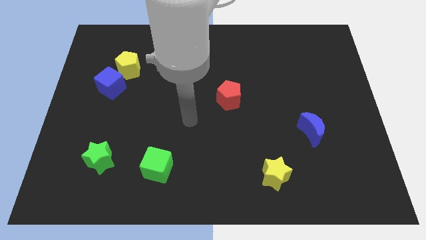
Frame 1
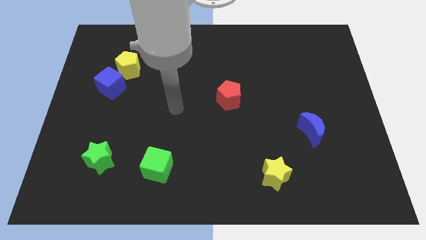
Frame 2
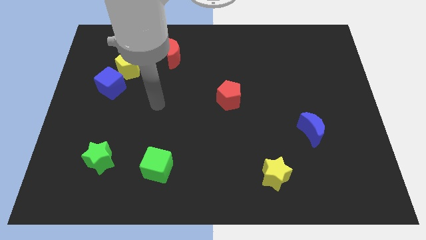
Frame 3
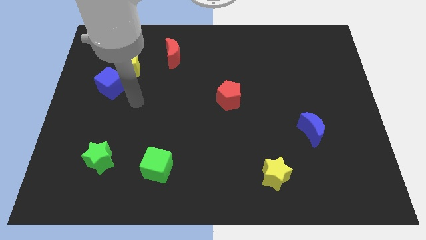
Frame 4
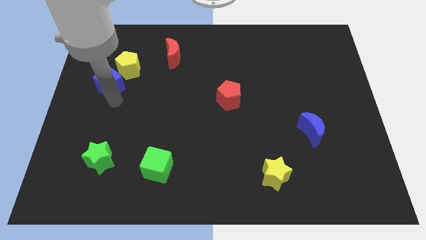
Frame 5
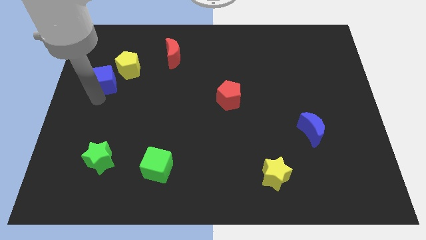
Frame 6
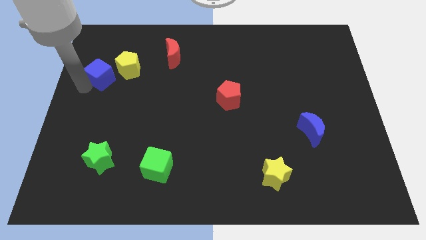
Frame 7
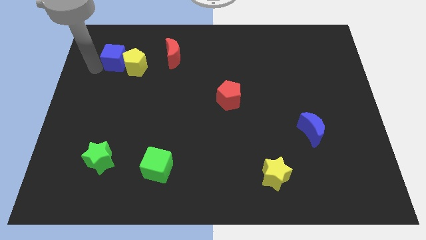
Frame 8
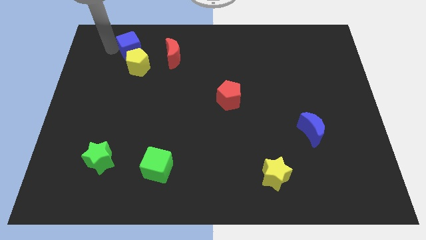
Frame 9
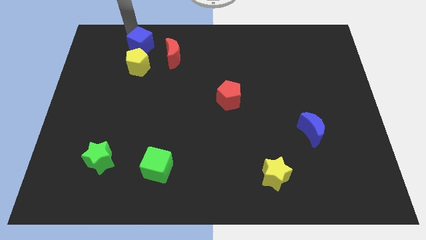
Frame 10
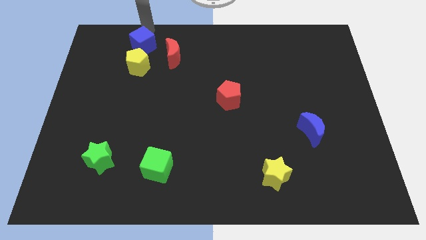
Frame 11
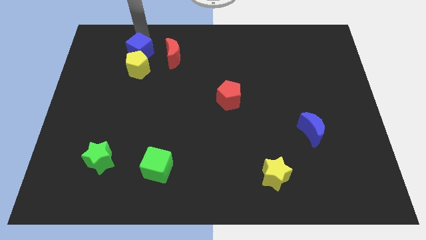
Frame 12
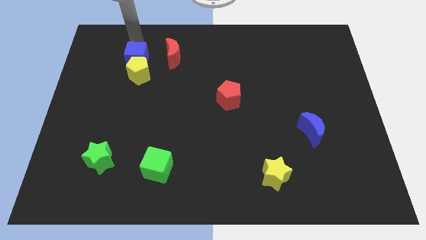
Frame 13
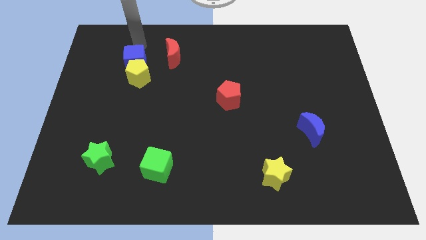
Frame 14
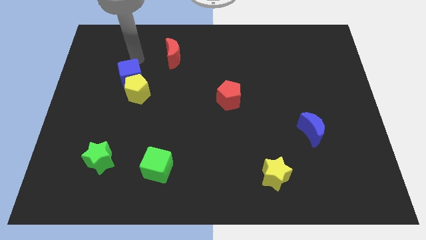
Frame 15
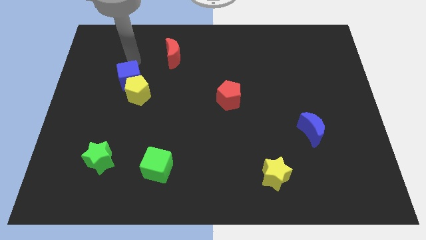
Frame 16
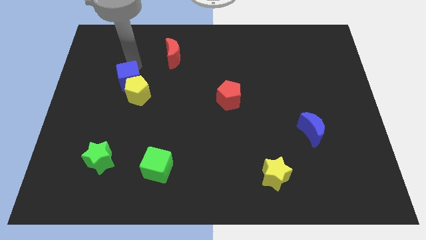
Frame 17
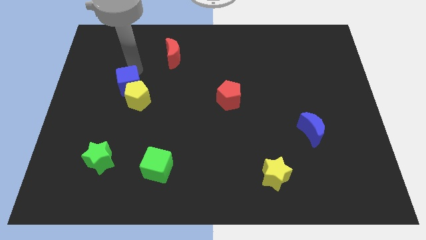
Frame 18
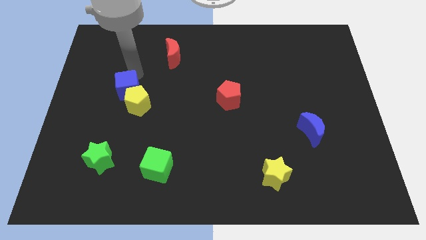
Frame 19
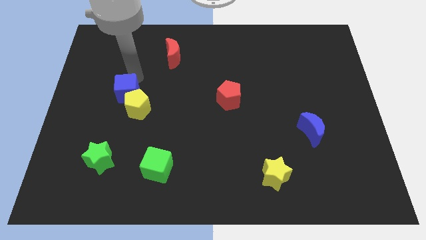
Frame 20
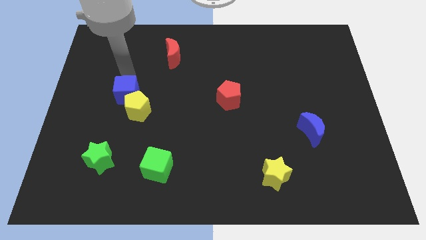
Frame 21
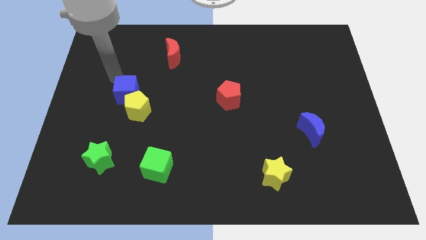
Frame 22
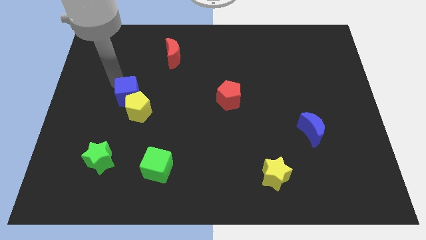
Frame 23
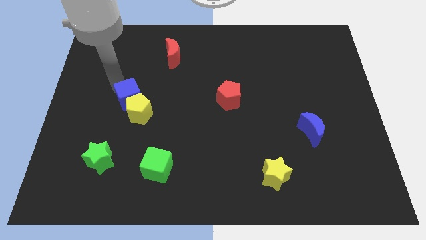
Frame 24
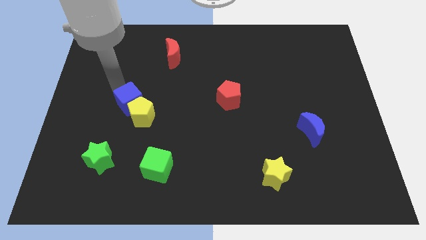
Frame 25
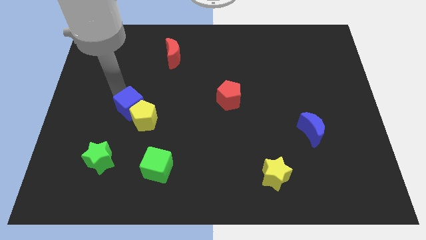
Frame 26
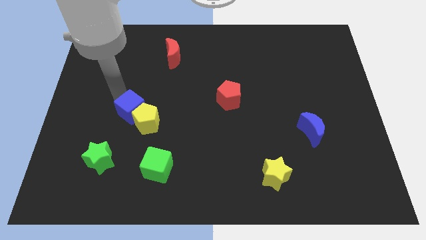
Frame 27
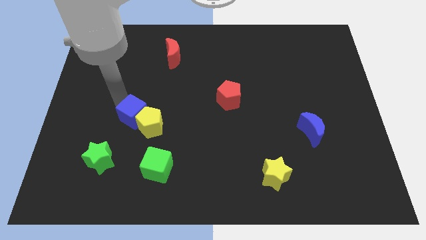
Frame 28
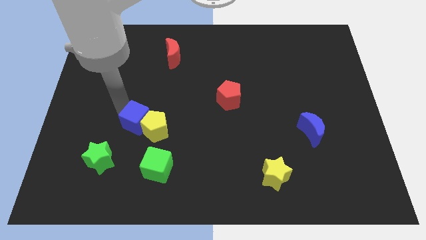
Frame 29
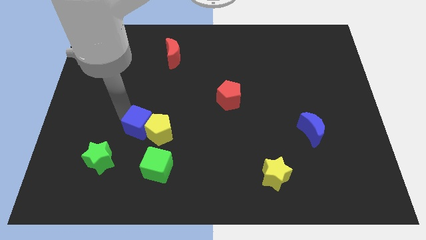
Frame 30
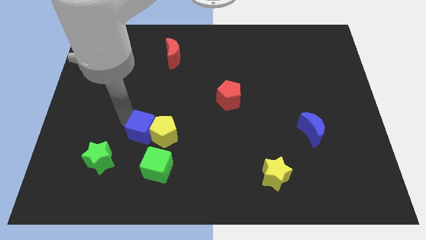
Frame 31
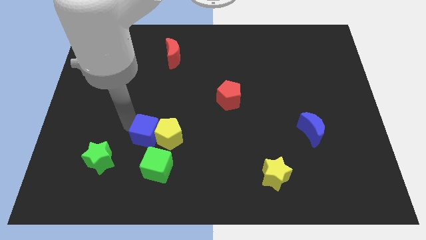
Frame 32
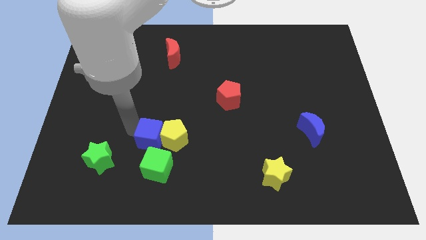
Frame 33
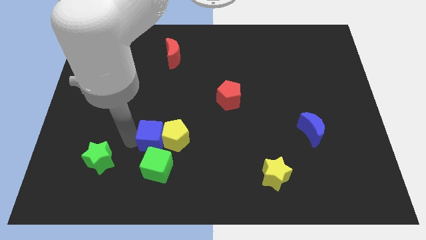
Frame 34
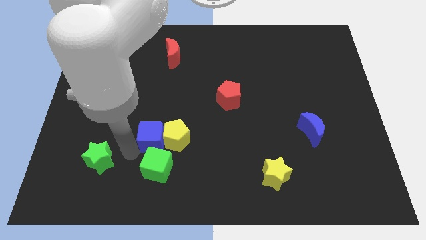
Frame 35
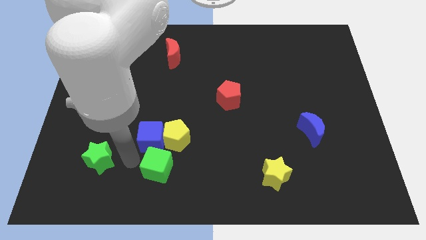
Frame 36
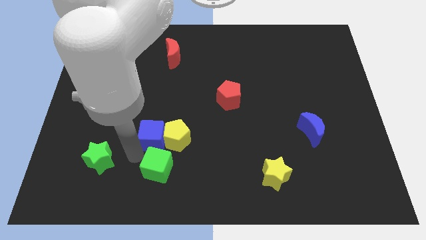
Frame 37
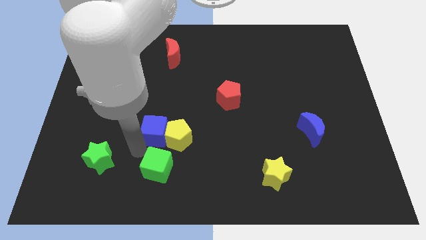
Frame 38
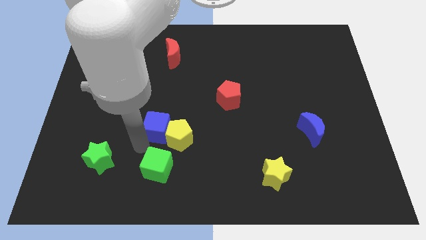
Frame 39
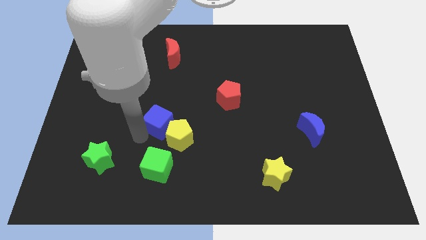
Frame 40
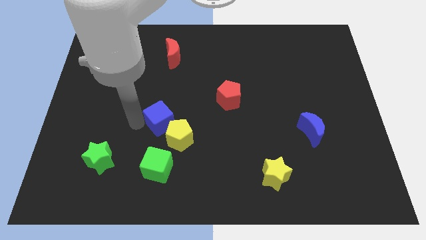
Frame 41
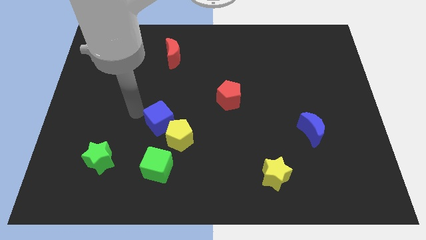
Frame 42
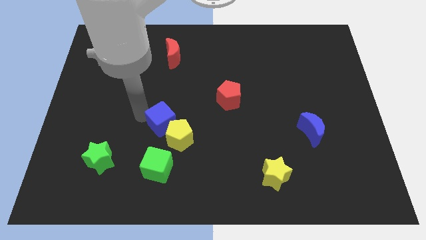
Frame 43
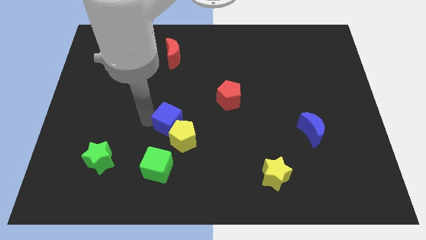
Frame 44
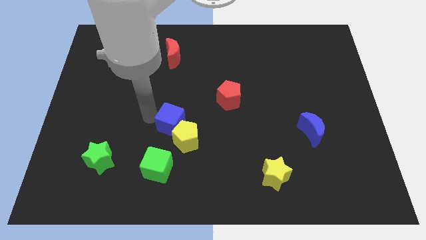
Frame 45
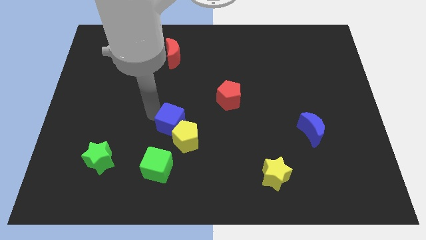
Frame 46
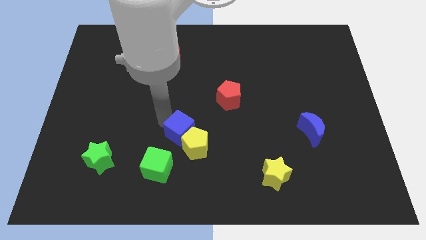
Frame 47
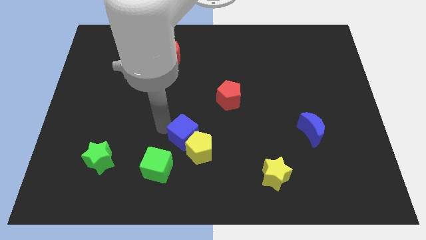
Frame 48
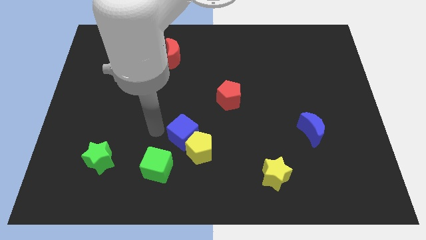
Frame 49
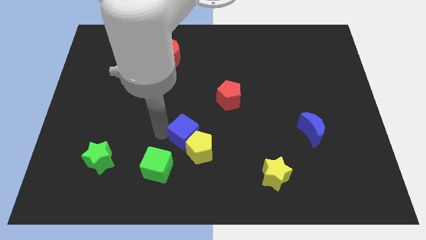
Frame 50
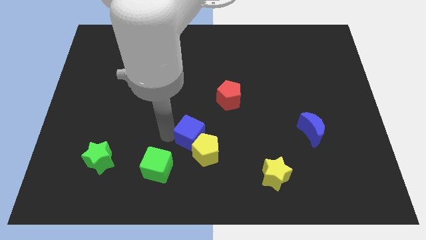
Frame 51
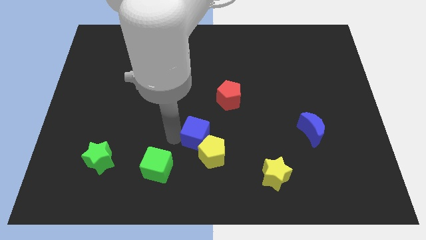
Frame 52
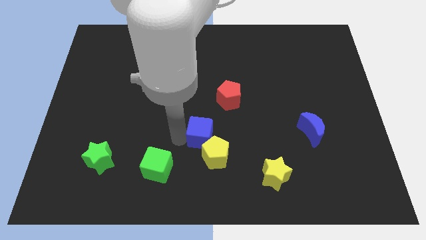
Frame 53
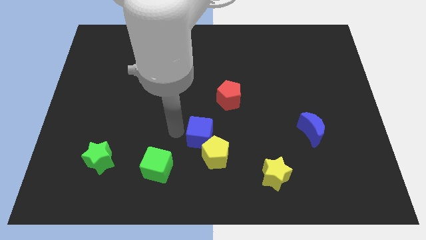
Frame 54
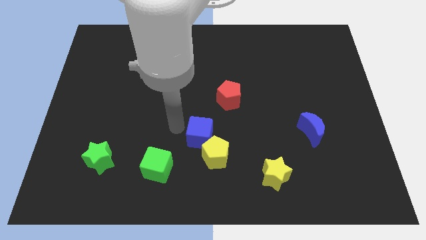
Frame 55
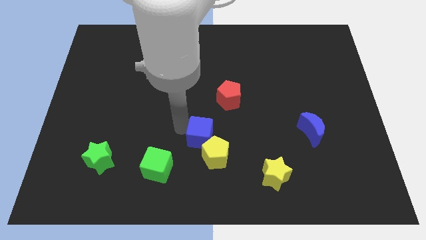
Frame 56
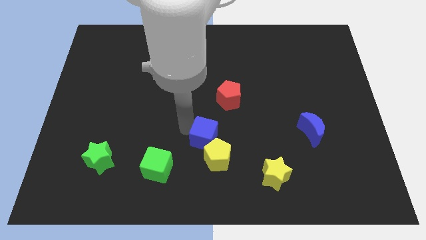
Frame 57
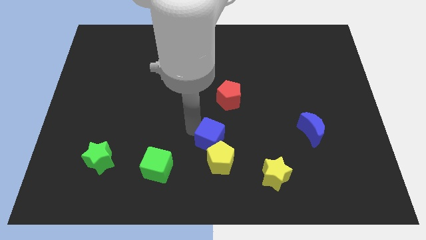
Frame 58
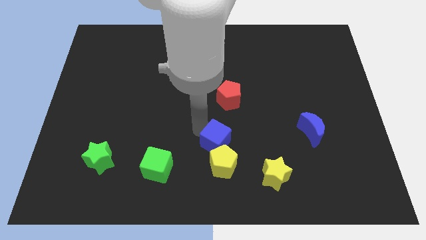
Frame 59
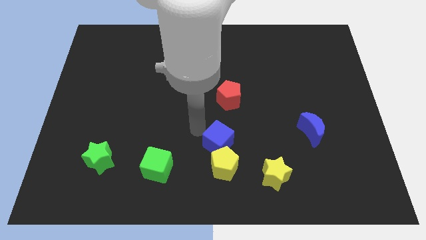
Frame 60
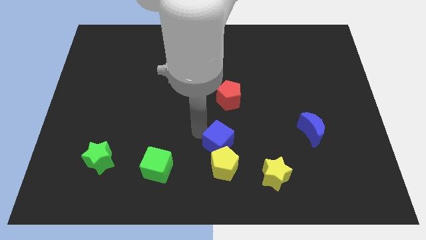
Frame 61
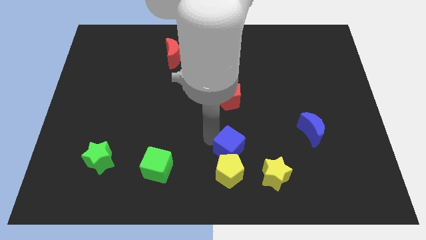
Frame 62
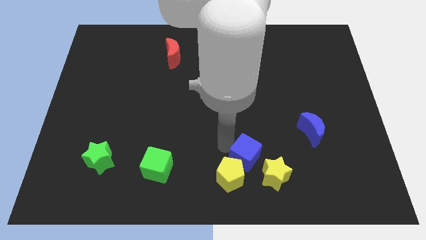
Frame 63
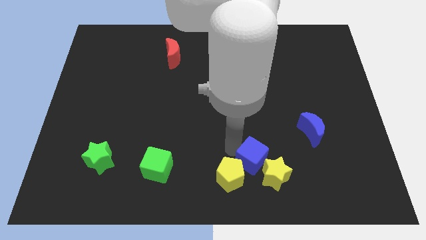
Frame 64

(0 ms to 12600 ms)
put the blue cube to the yellow star
